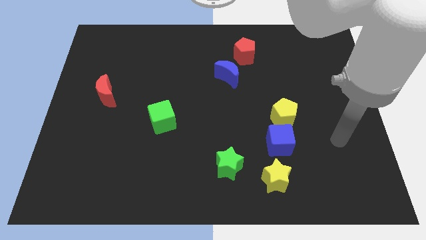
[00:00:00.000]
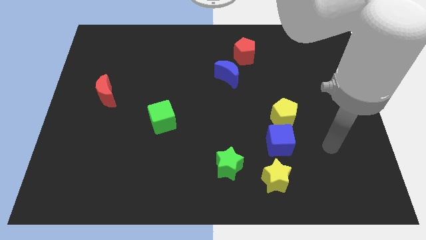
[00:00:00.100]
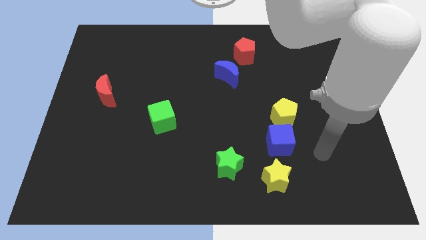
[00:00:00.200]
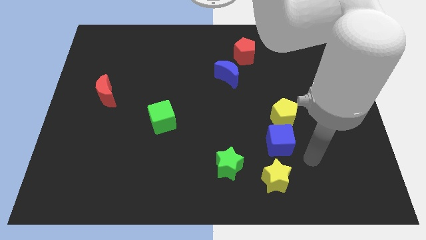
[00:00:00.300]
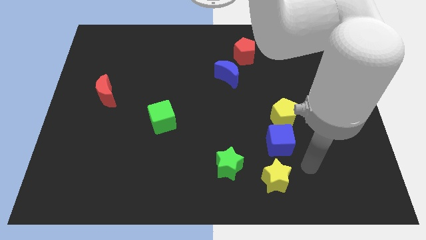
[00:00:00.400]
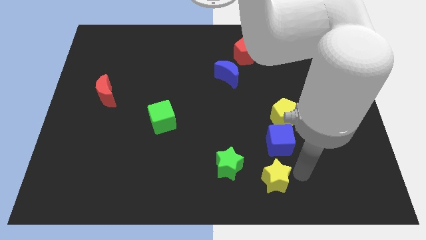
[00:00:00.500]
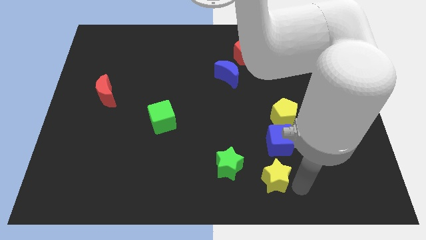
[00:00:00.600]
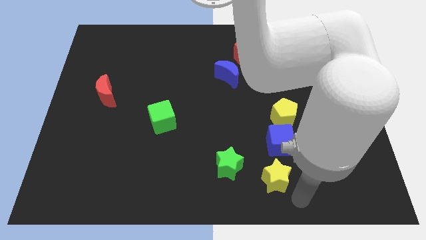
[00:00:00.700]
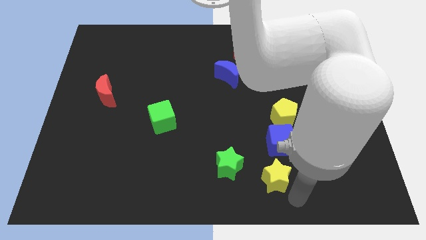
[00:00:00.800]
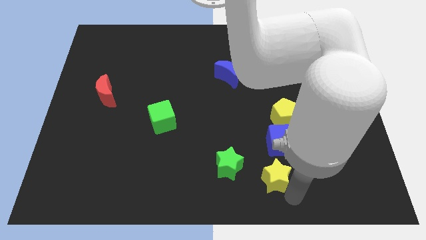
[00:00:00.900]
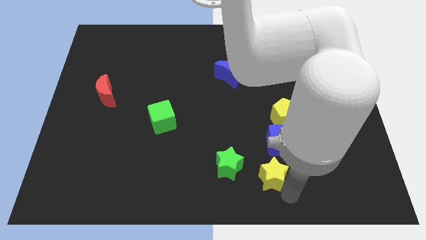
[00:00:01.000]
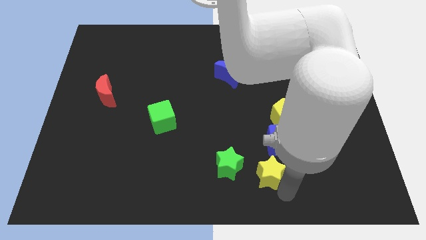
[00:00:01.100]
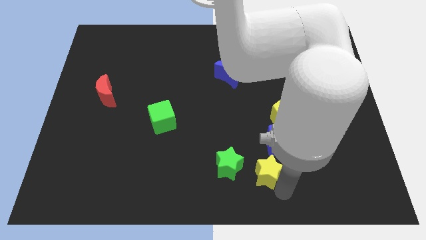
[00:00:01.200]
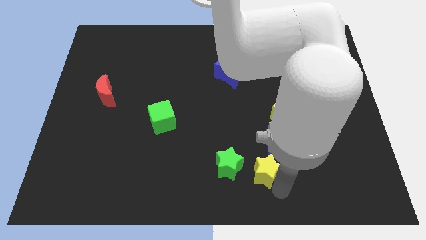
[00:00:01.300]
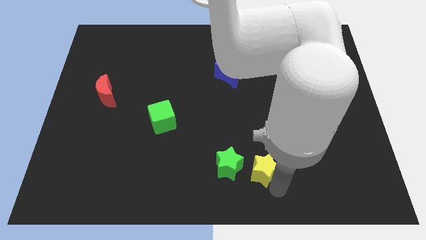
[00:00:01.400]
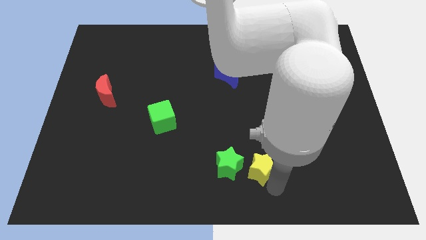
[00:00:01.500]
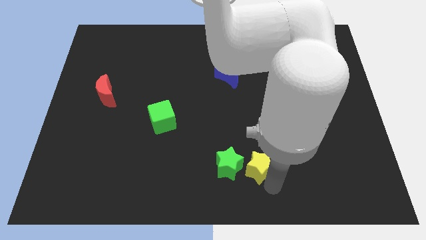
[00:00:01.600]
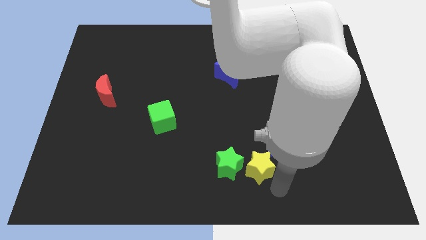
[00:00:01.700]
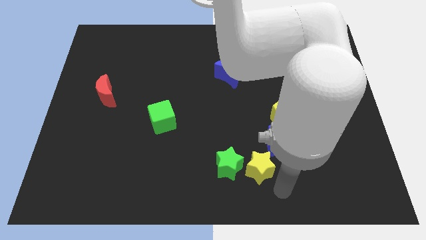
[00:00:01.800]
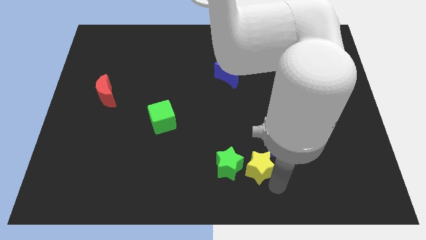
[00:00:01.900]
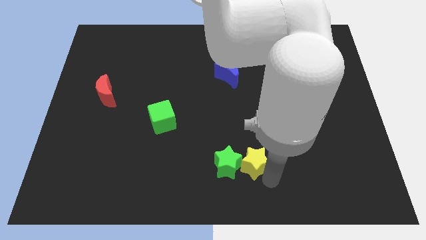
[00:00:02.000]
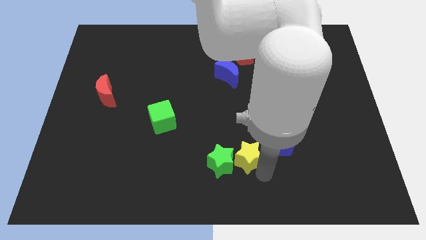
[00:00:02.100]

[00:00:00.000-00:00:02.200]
push the yellow star upwards and left somewhat

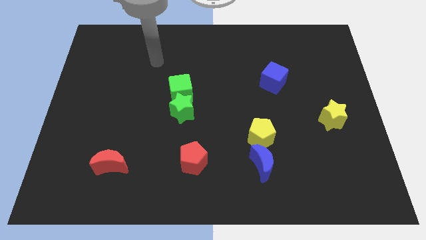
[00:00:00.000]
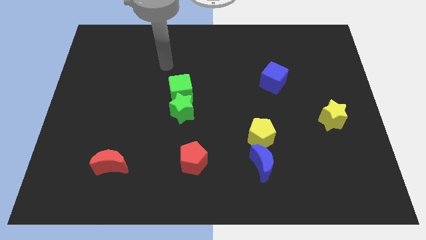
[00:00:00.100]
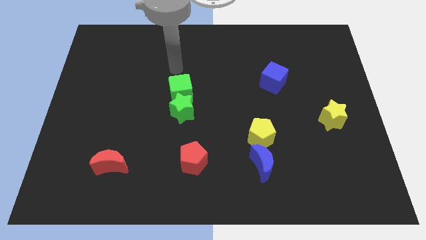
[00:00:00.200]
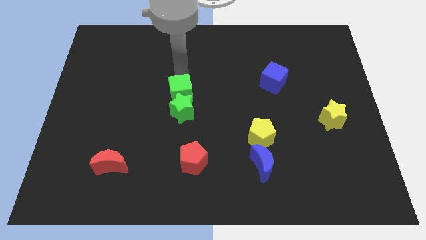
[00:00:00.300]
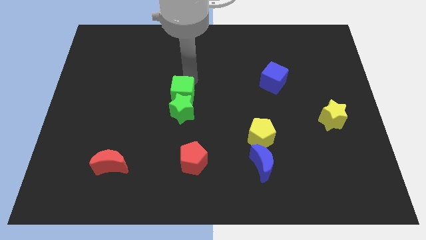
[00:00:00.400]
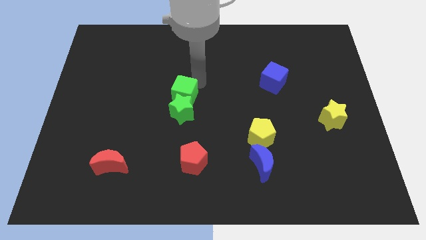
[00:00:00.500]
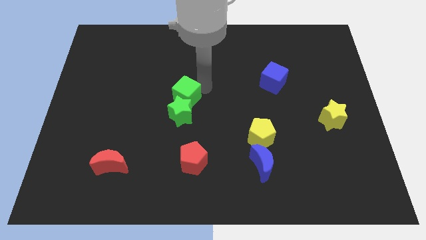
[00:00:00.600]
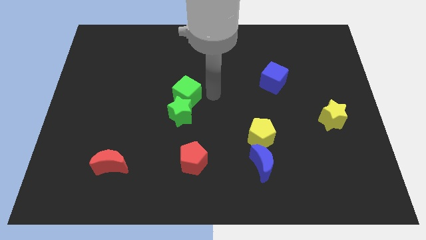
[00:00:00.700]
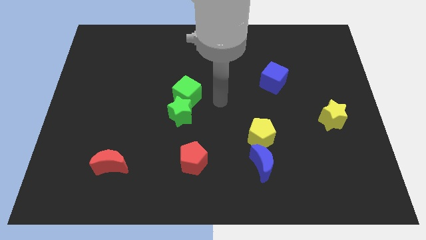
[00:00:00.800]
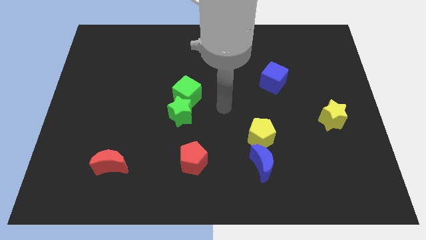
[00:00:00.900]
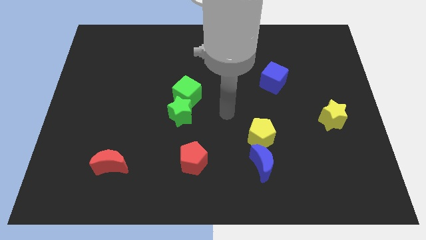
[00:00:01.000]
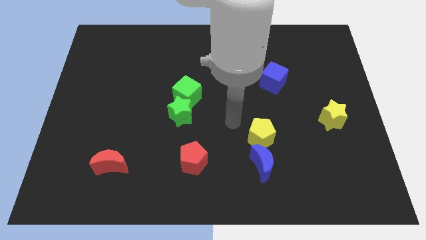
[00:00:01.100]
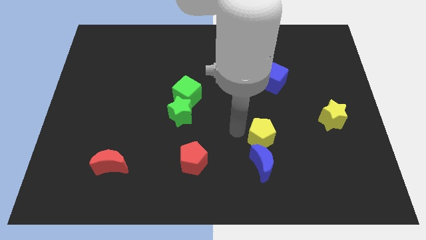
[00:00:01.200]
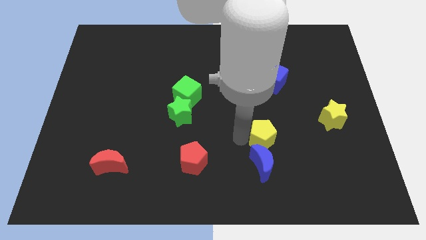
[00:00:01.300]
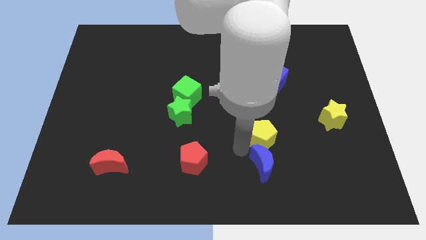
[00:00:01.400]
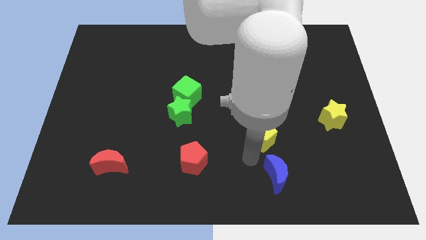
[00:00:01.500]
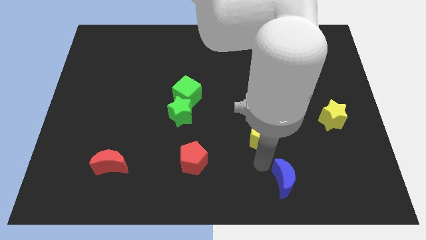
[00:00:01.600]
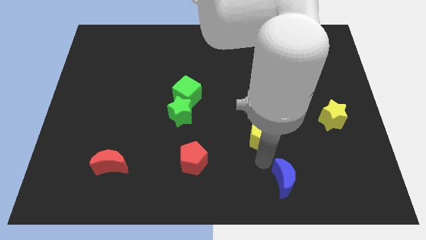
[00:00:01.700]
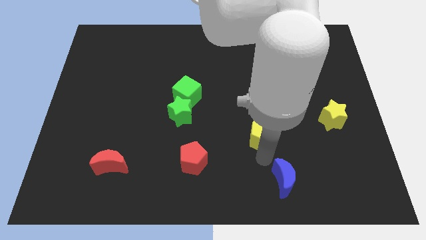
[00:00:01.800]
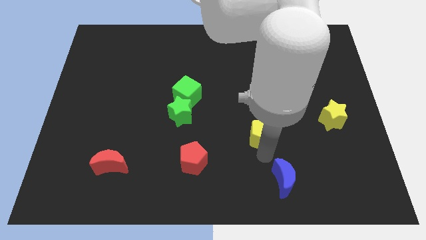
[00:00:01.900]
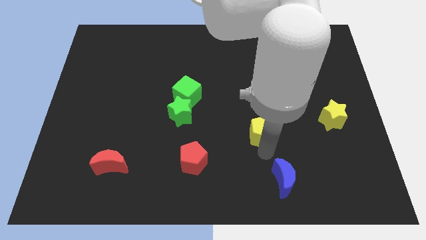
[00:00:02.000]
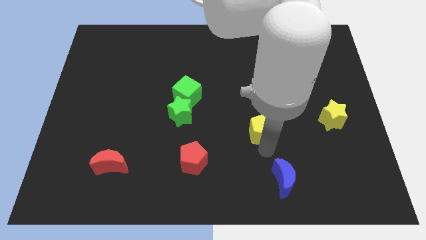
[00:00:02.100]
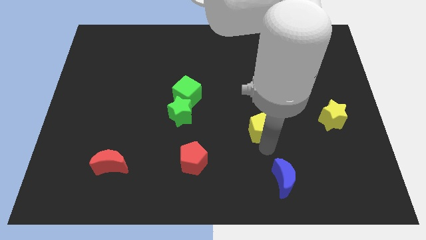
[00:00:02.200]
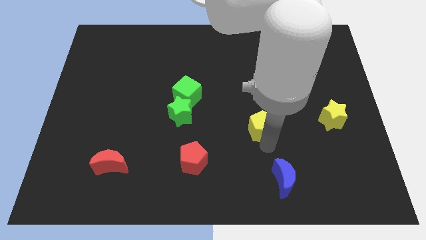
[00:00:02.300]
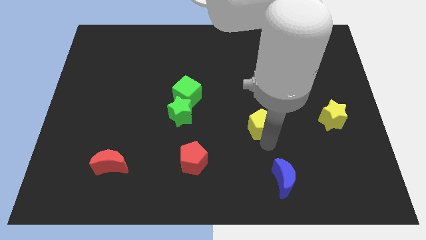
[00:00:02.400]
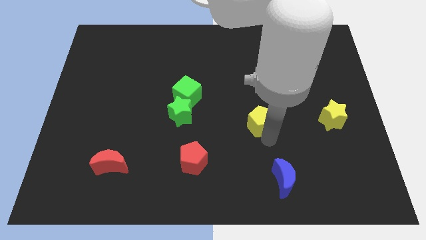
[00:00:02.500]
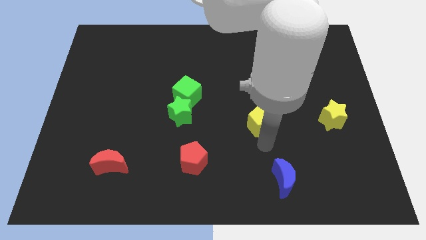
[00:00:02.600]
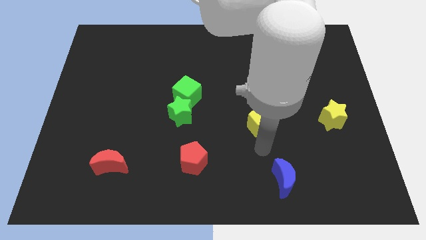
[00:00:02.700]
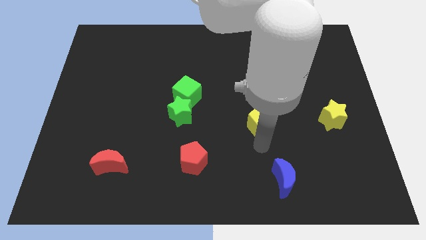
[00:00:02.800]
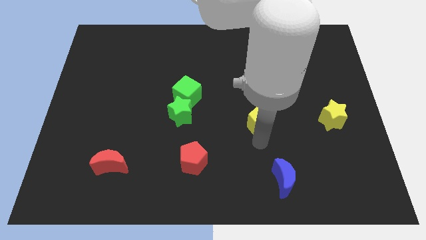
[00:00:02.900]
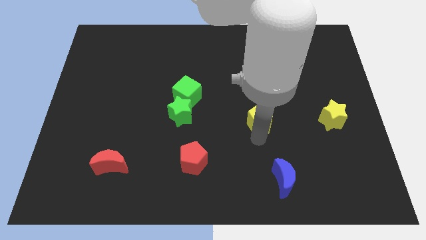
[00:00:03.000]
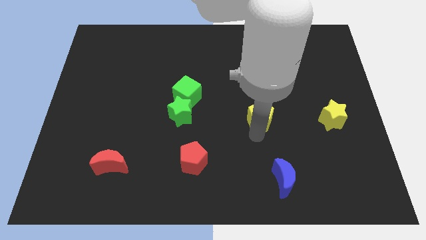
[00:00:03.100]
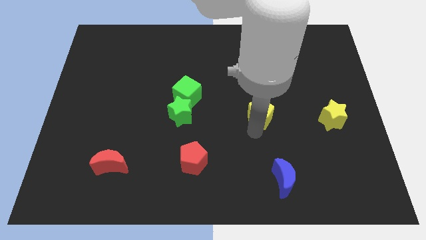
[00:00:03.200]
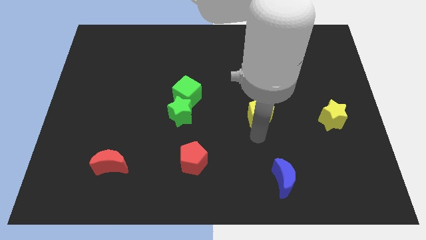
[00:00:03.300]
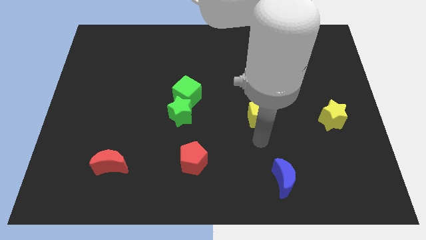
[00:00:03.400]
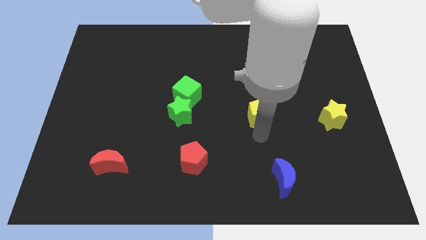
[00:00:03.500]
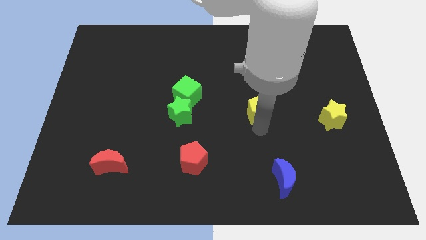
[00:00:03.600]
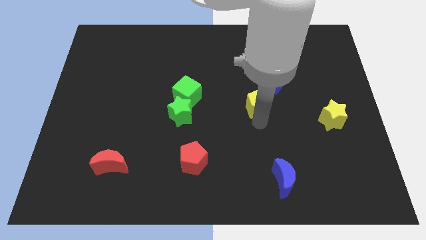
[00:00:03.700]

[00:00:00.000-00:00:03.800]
move the yellow pentagon upwards somewhat

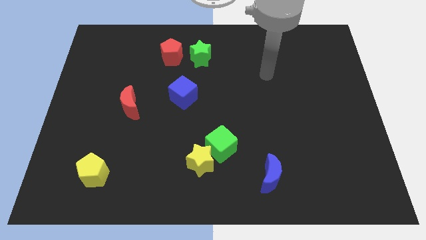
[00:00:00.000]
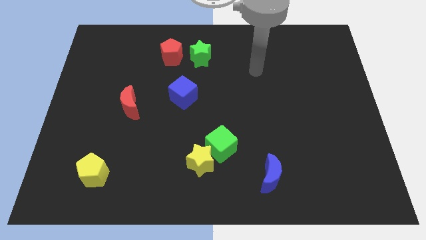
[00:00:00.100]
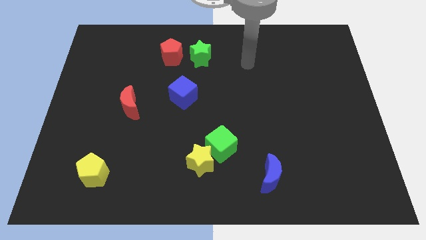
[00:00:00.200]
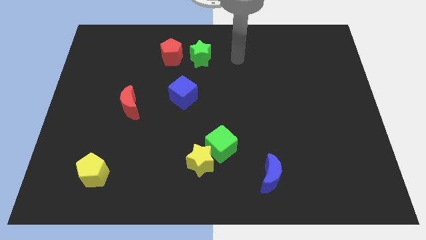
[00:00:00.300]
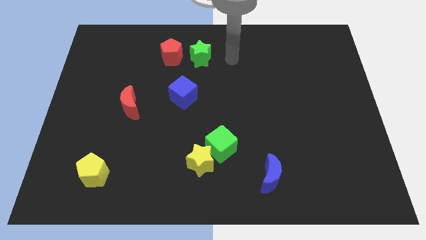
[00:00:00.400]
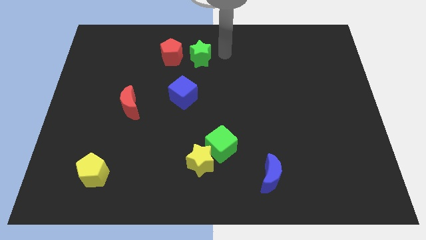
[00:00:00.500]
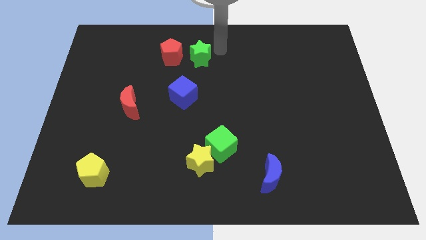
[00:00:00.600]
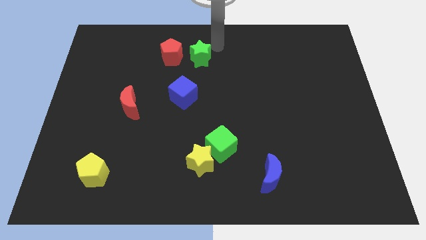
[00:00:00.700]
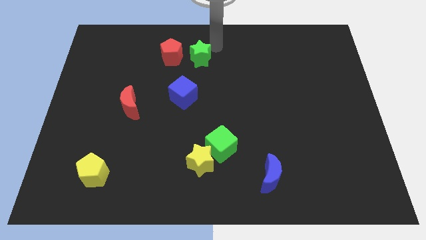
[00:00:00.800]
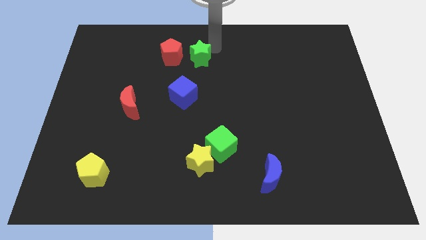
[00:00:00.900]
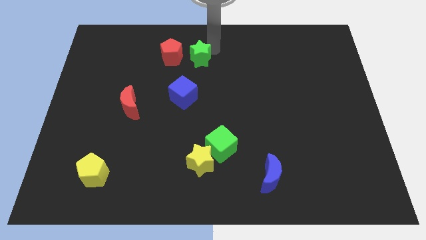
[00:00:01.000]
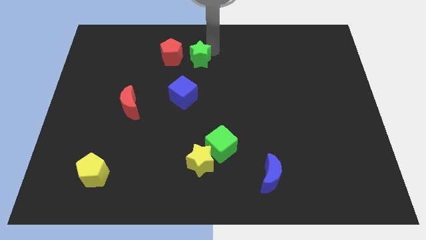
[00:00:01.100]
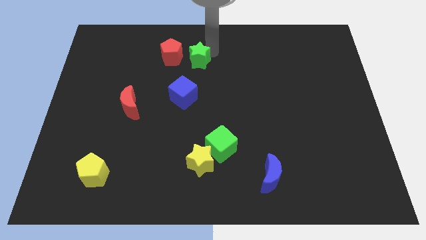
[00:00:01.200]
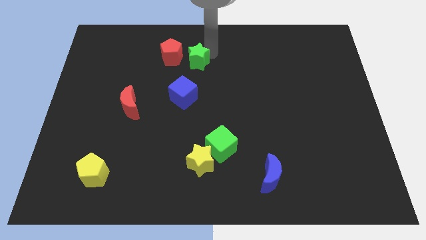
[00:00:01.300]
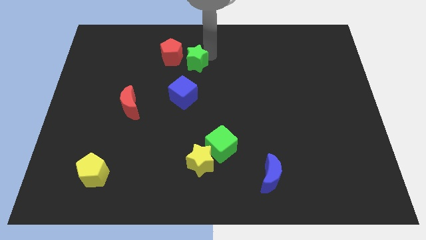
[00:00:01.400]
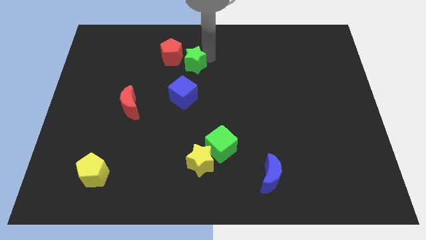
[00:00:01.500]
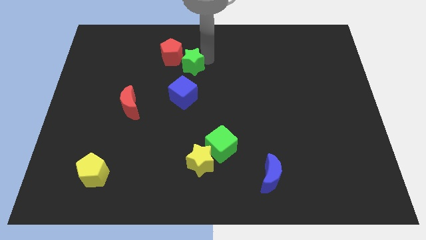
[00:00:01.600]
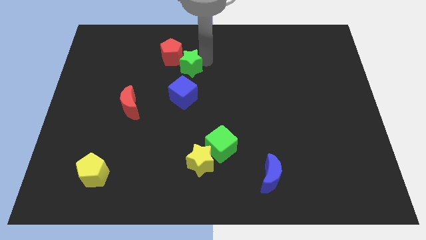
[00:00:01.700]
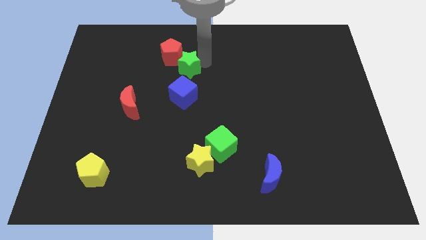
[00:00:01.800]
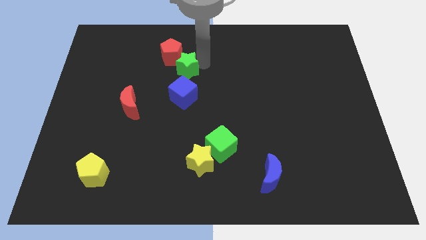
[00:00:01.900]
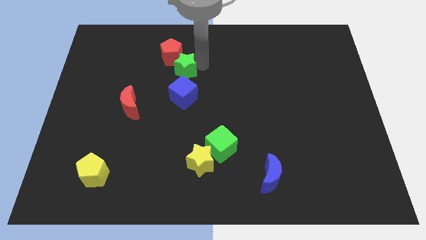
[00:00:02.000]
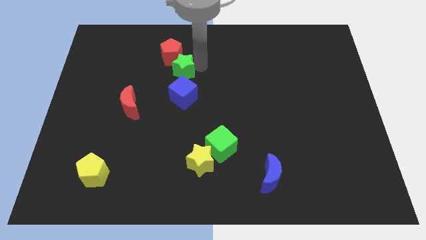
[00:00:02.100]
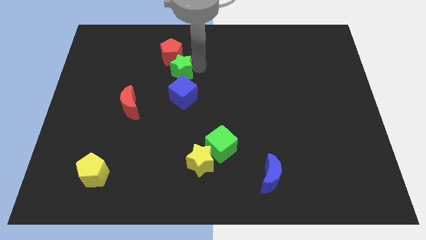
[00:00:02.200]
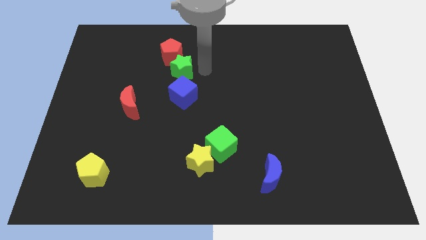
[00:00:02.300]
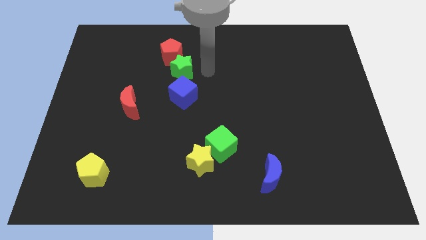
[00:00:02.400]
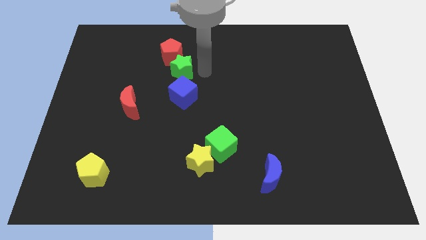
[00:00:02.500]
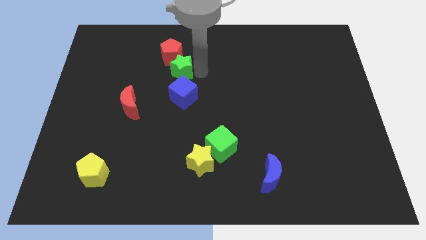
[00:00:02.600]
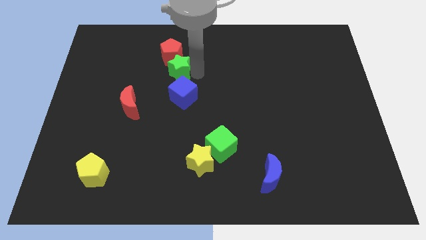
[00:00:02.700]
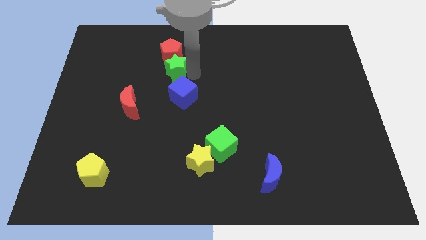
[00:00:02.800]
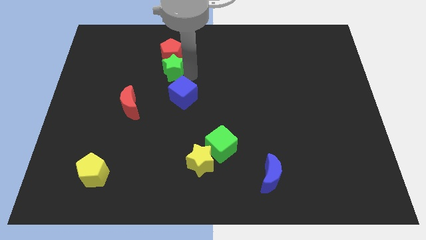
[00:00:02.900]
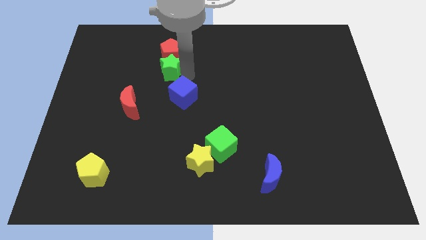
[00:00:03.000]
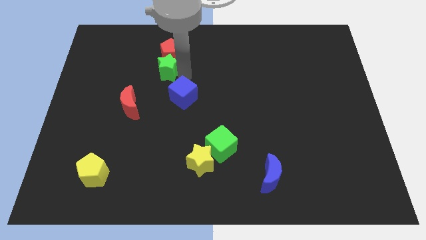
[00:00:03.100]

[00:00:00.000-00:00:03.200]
push the green star slightly left
